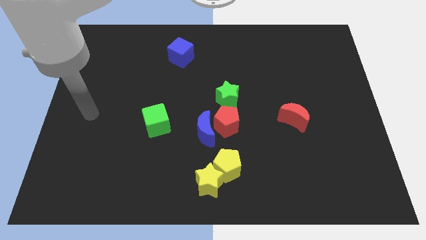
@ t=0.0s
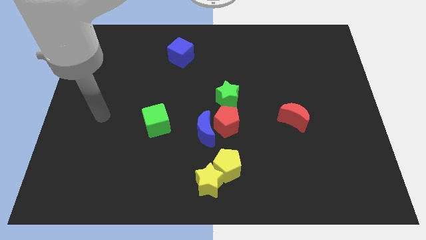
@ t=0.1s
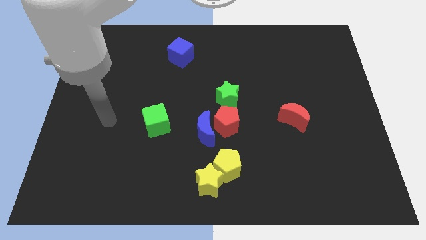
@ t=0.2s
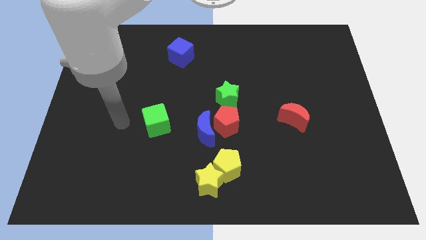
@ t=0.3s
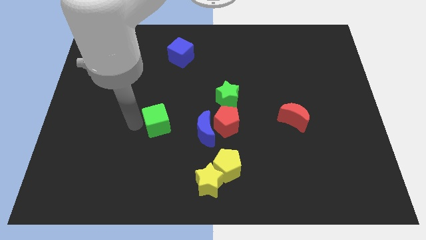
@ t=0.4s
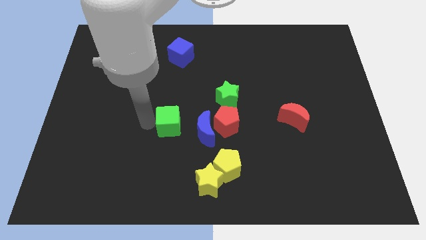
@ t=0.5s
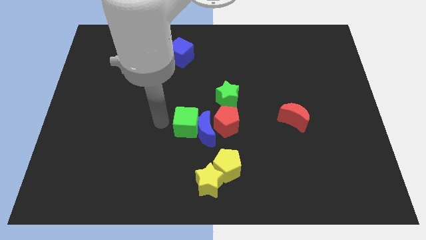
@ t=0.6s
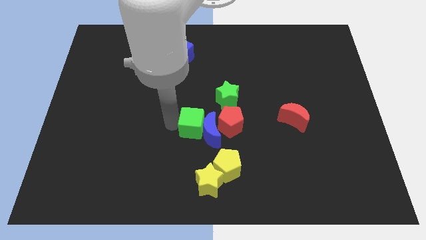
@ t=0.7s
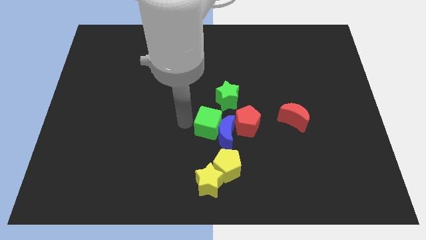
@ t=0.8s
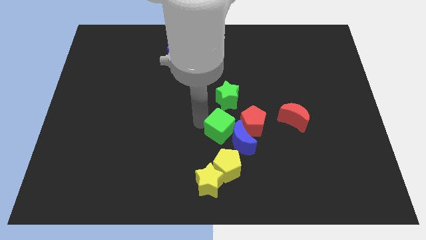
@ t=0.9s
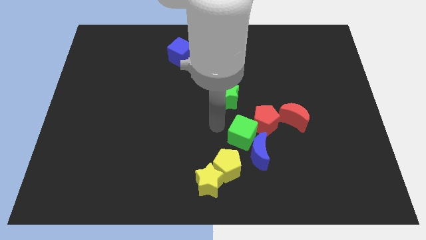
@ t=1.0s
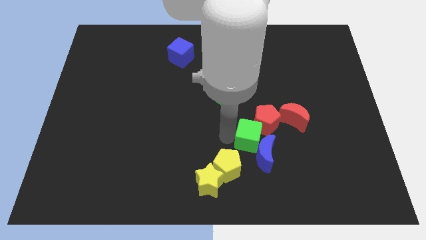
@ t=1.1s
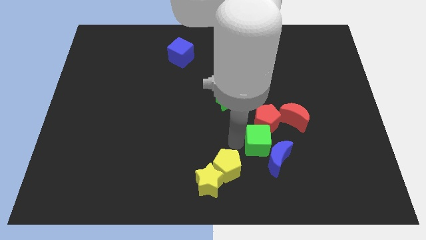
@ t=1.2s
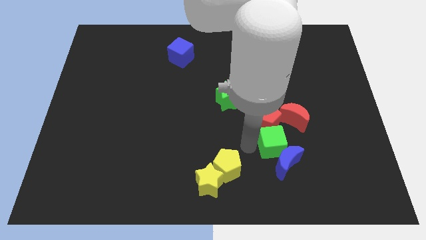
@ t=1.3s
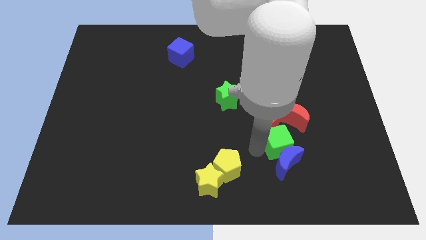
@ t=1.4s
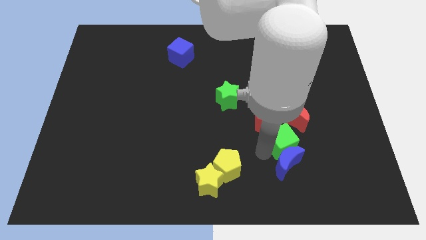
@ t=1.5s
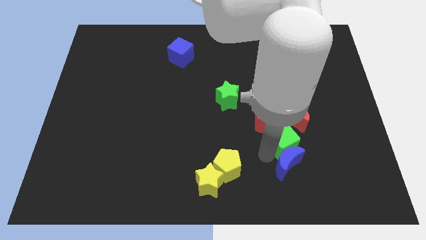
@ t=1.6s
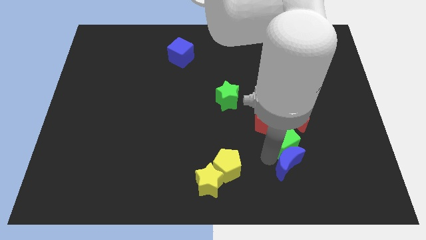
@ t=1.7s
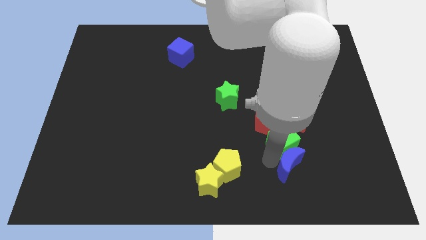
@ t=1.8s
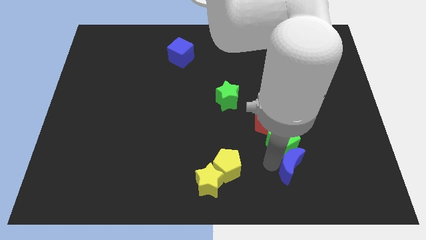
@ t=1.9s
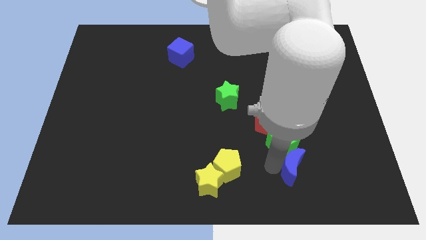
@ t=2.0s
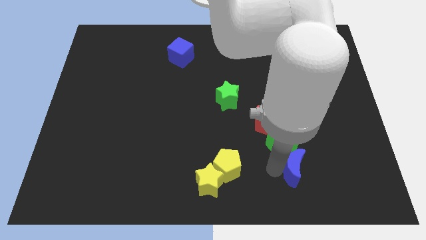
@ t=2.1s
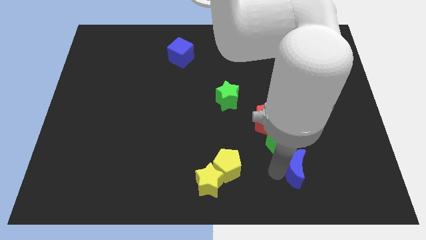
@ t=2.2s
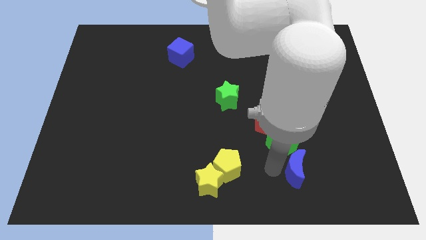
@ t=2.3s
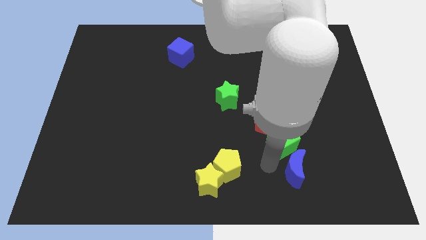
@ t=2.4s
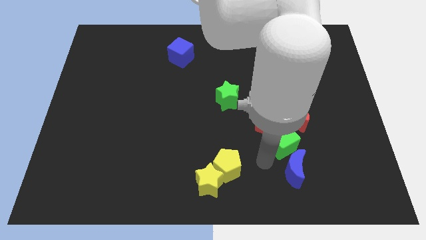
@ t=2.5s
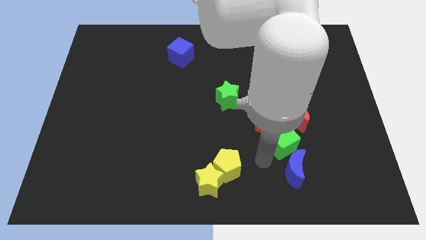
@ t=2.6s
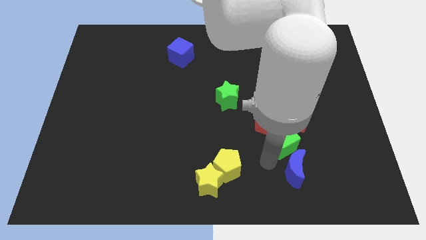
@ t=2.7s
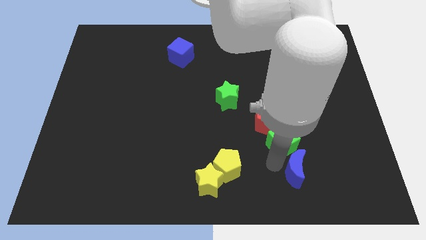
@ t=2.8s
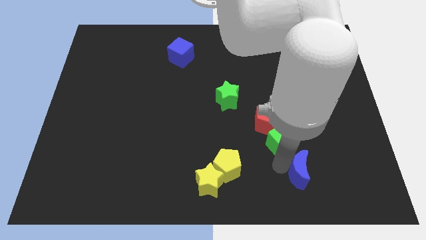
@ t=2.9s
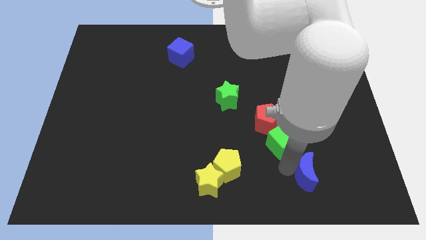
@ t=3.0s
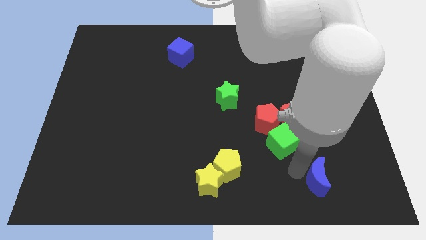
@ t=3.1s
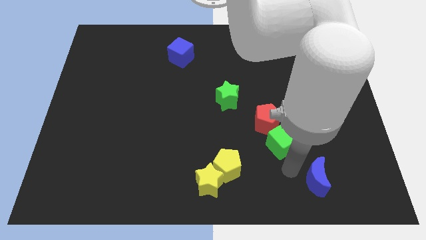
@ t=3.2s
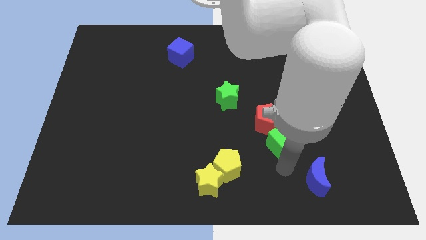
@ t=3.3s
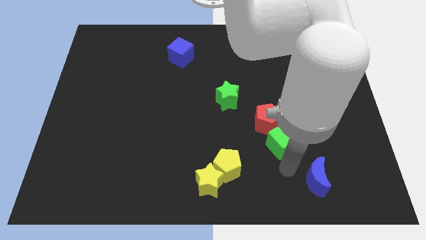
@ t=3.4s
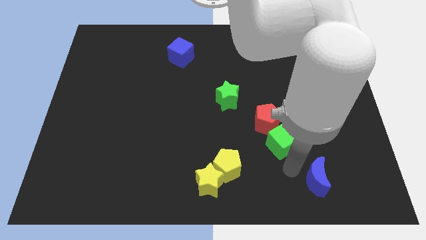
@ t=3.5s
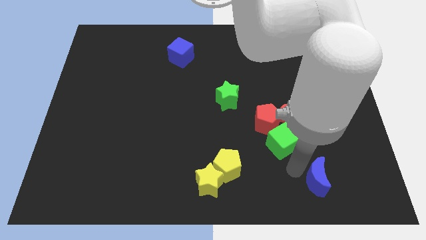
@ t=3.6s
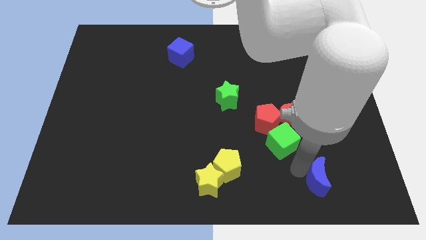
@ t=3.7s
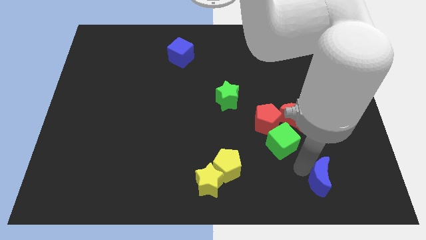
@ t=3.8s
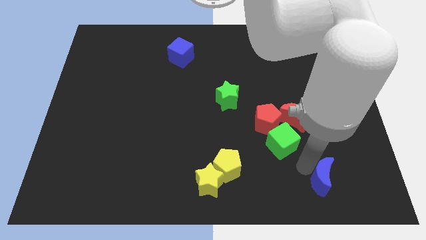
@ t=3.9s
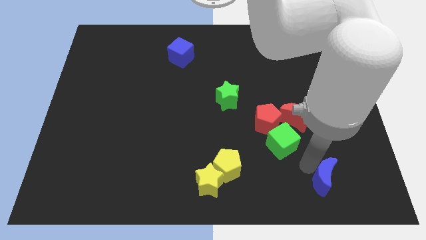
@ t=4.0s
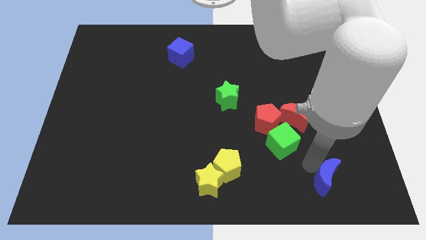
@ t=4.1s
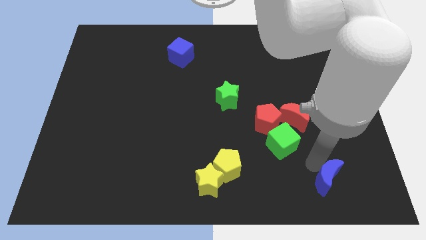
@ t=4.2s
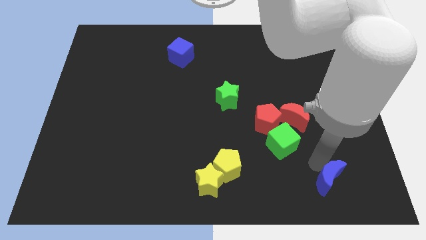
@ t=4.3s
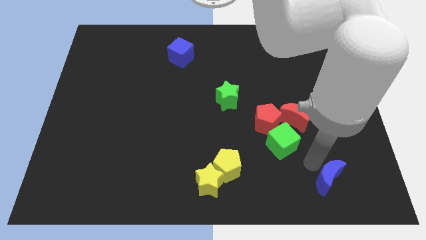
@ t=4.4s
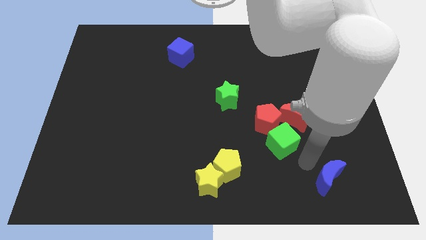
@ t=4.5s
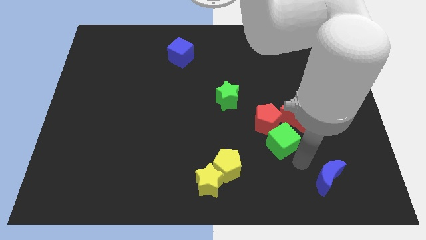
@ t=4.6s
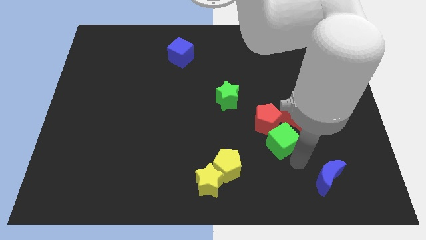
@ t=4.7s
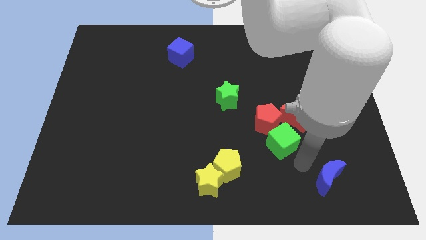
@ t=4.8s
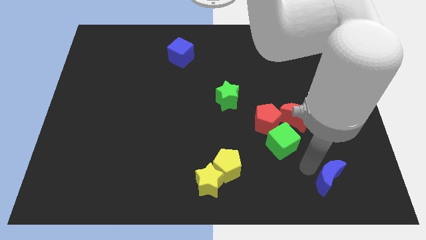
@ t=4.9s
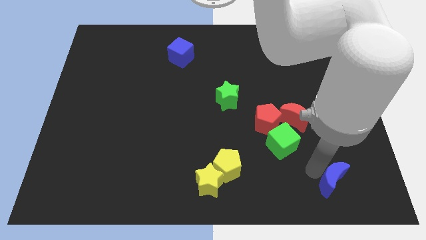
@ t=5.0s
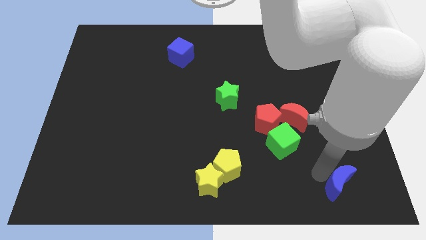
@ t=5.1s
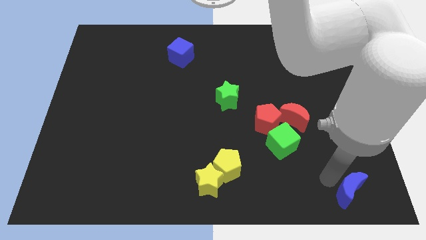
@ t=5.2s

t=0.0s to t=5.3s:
move the blue moon to the bottom right of the board
